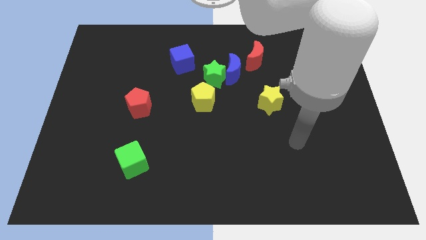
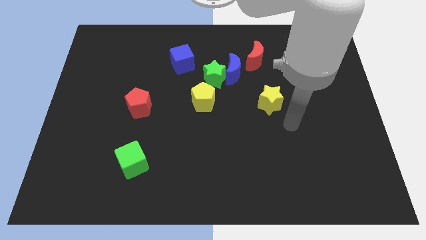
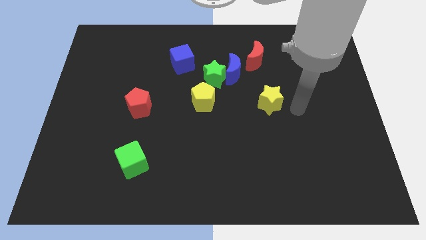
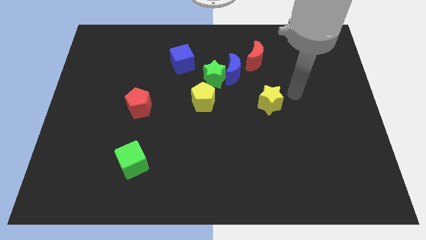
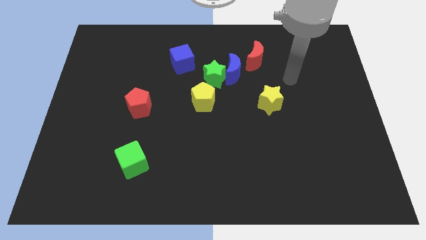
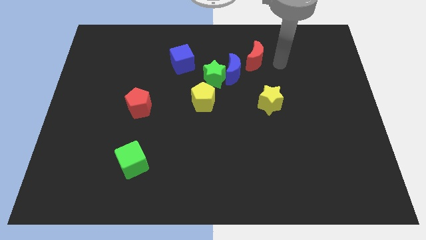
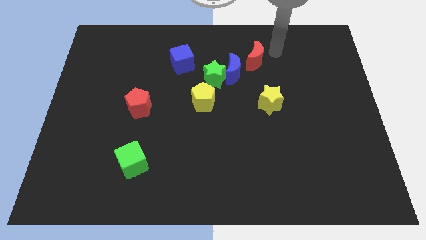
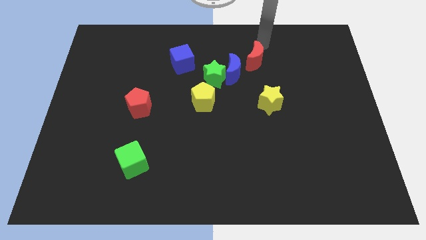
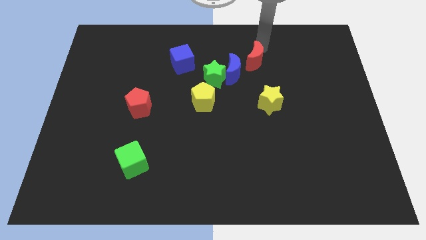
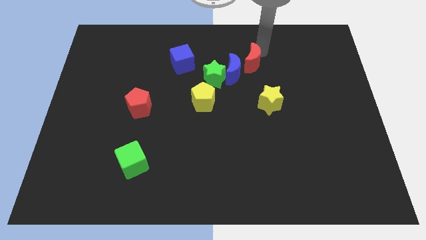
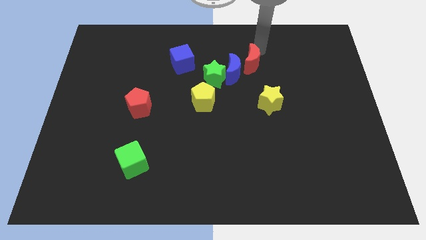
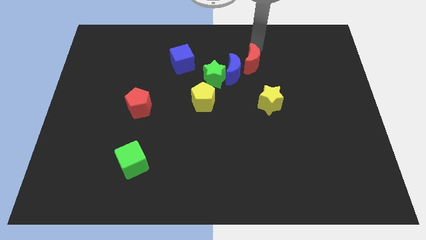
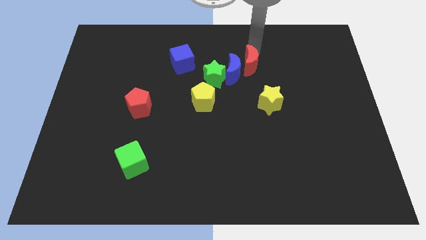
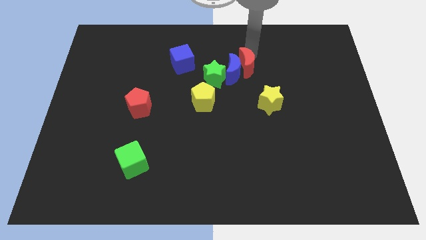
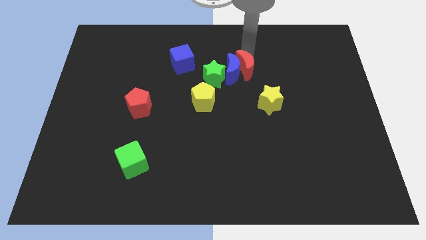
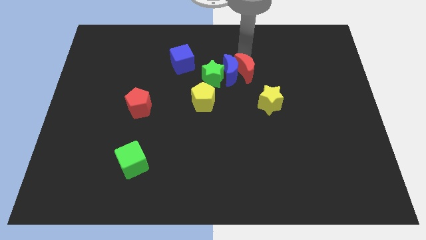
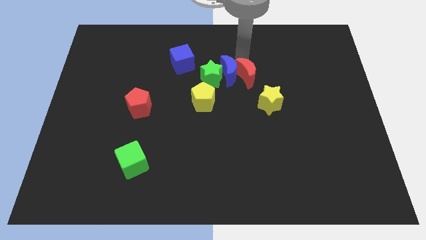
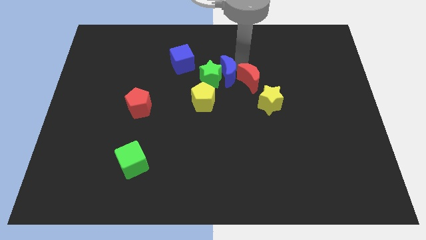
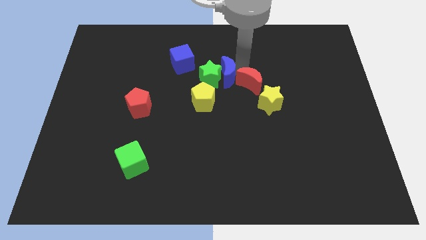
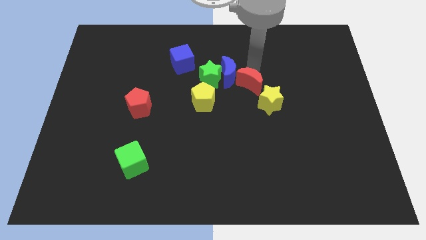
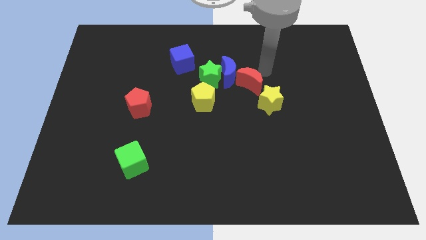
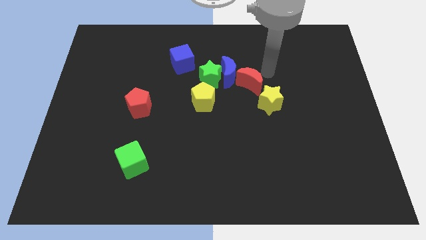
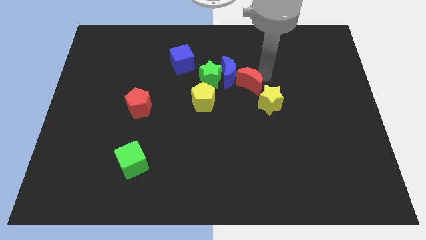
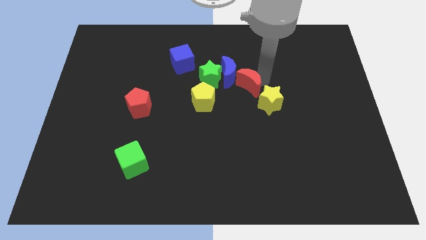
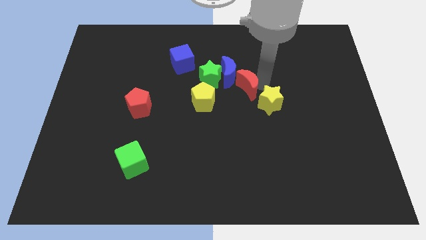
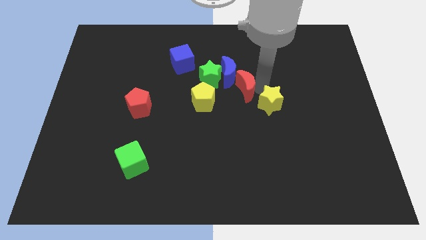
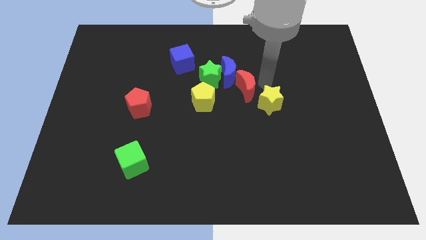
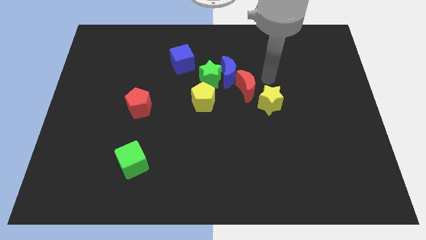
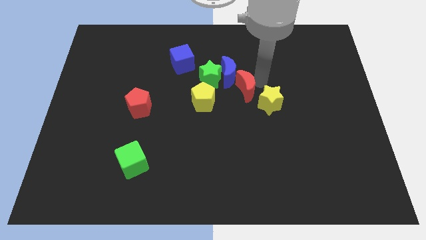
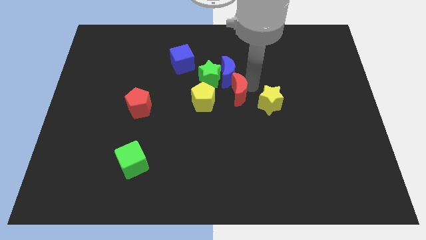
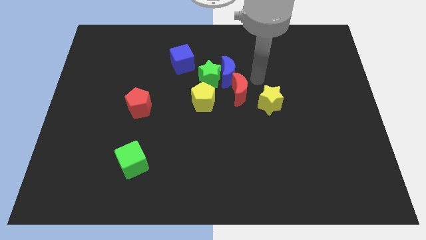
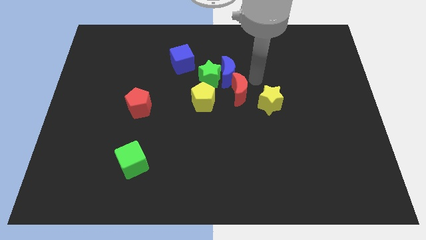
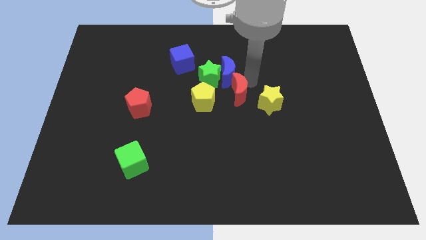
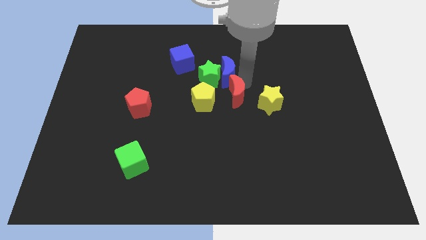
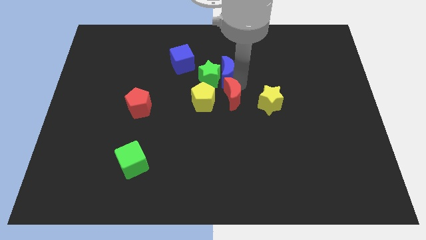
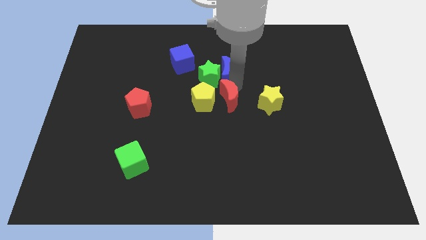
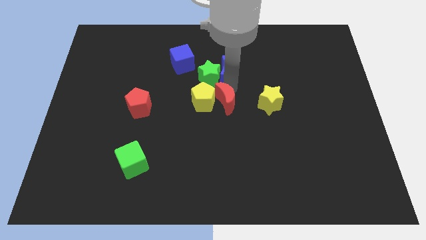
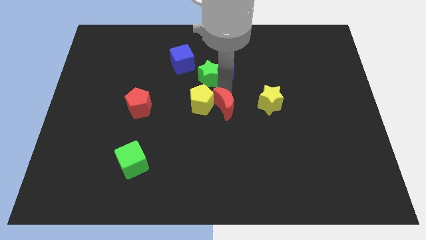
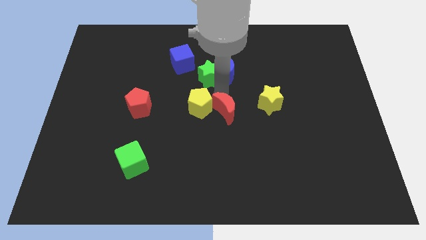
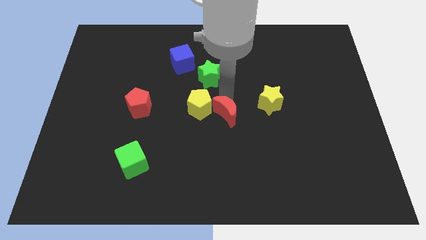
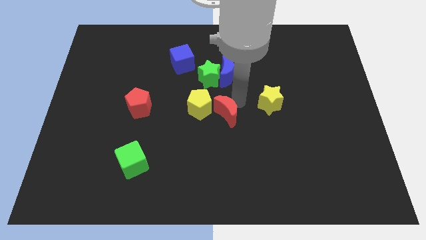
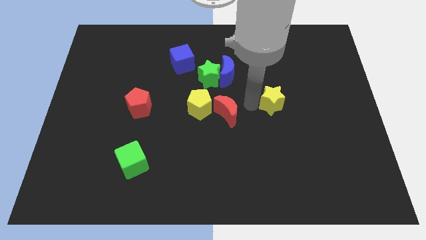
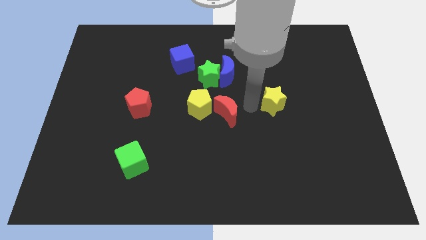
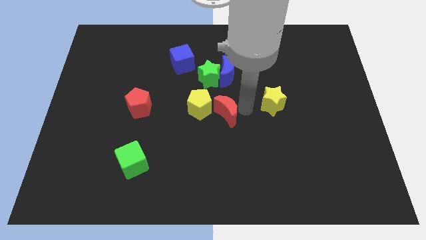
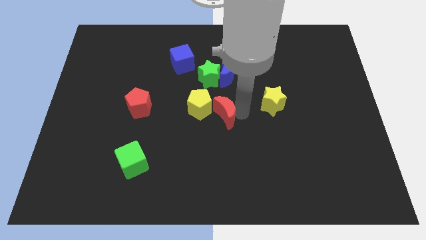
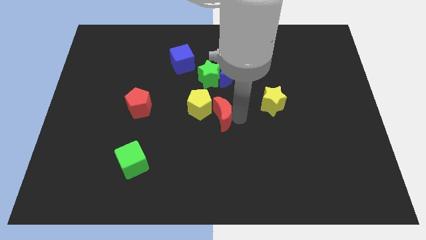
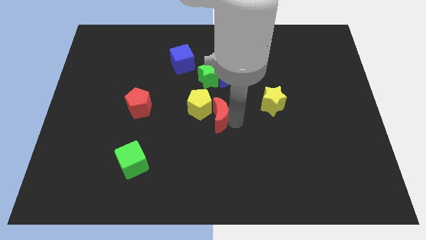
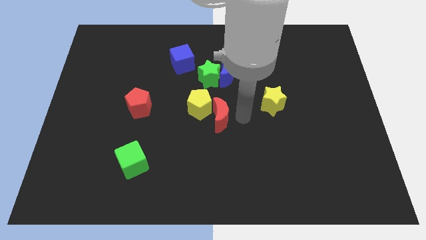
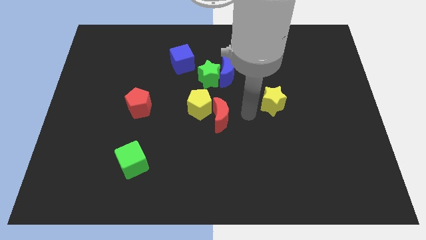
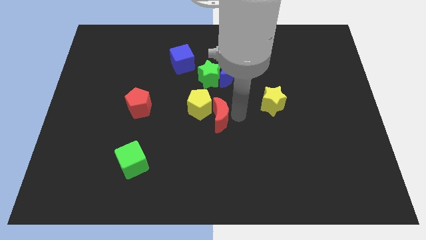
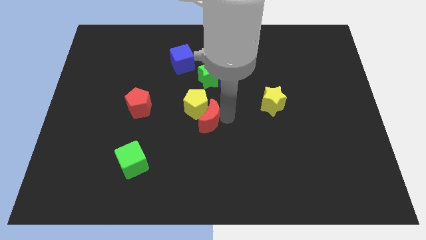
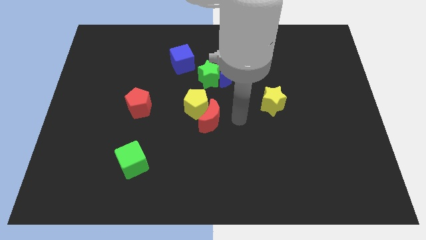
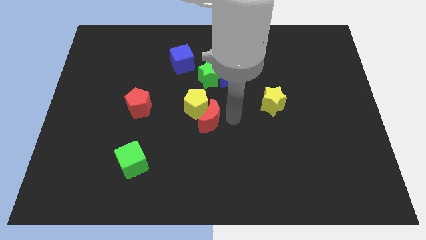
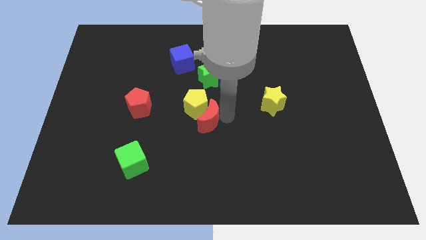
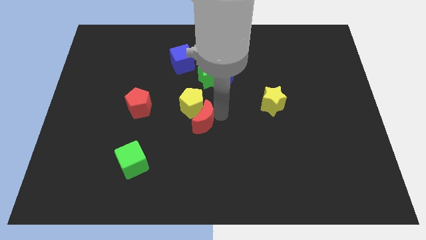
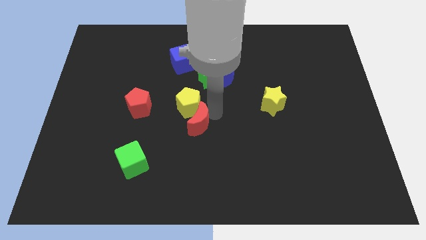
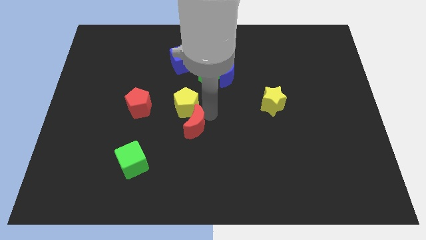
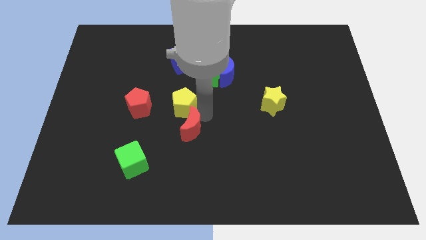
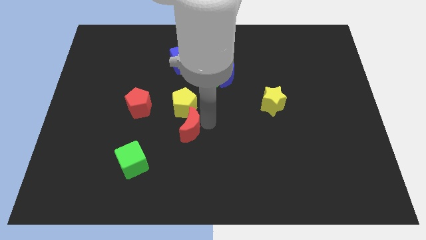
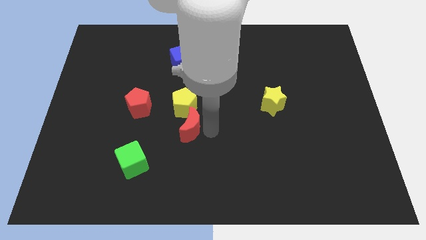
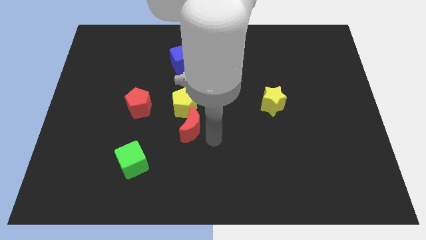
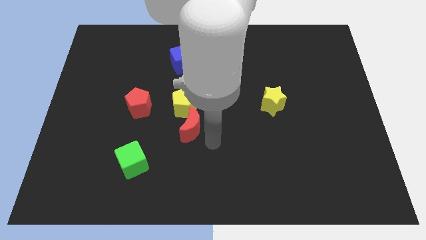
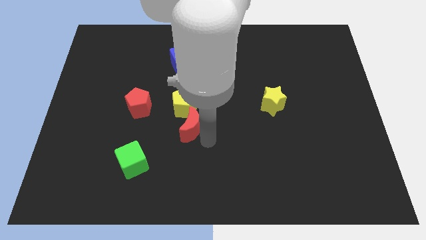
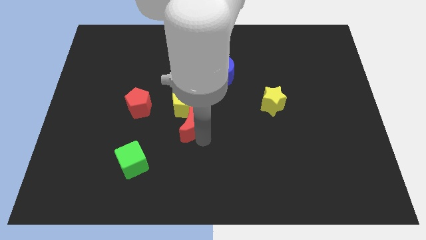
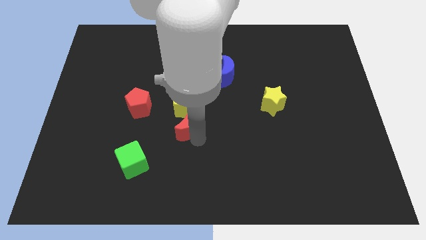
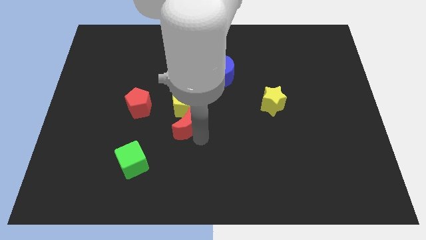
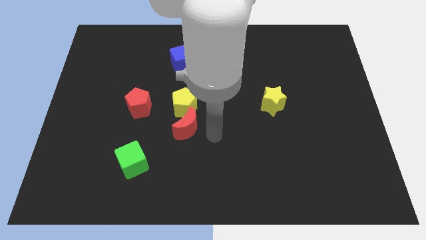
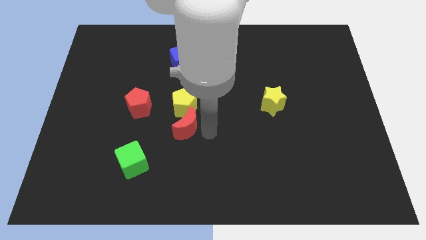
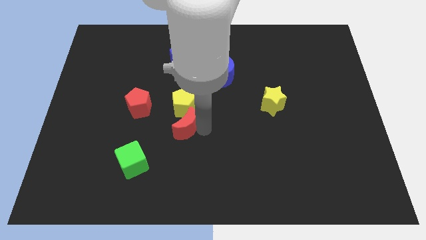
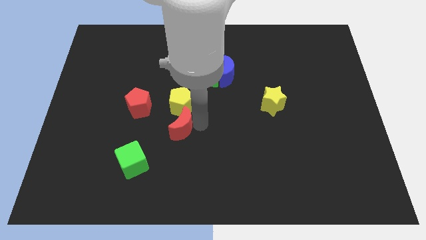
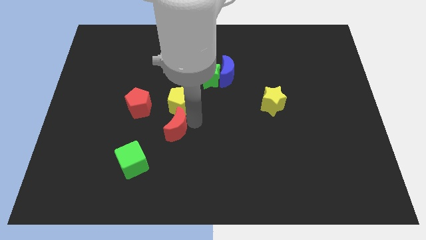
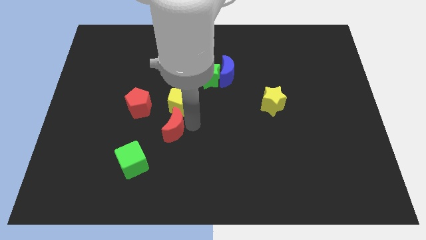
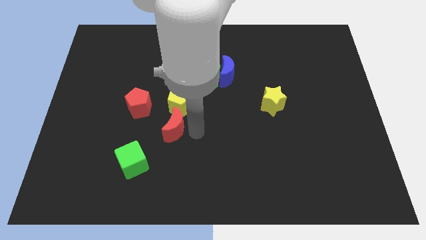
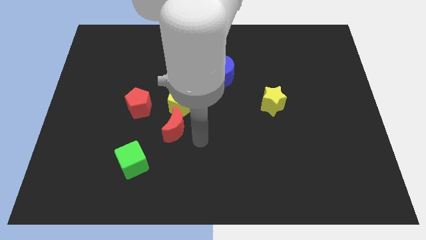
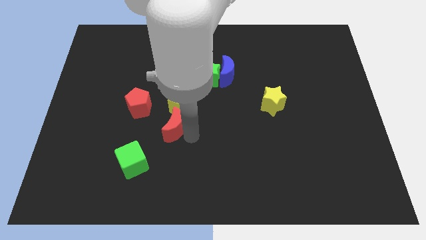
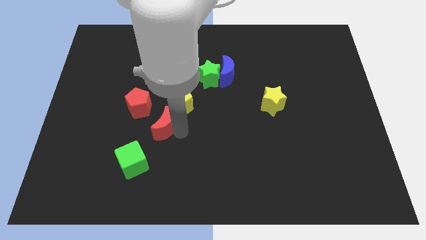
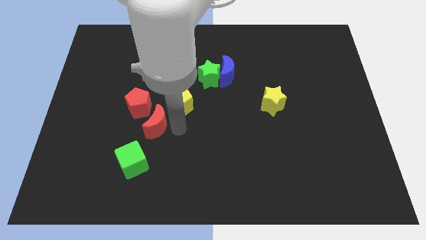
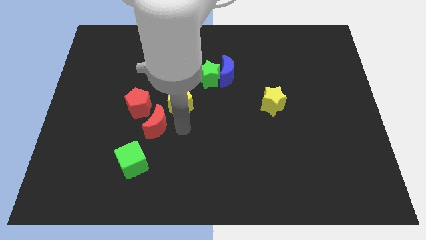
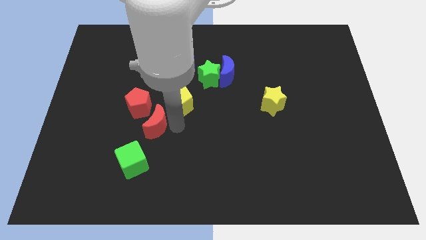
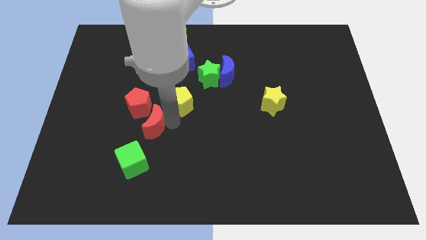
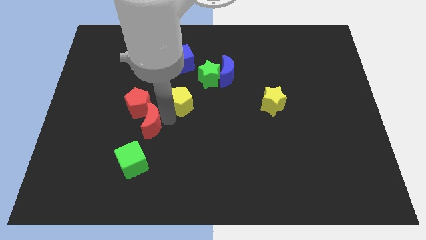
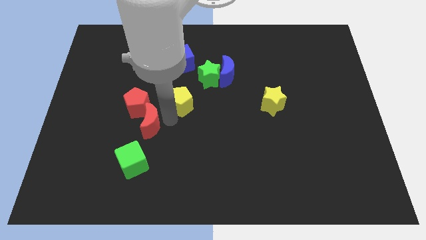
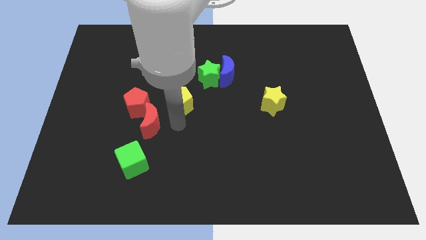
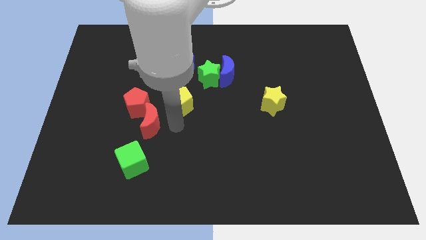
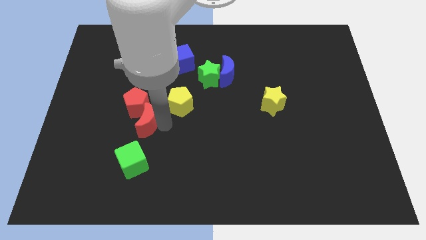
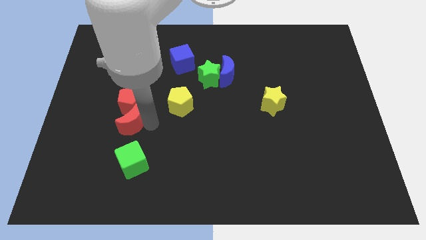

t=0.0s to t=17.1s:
push the red moon to the bottom left side of the red pentagon
